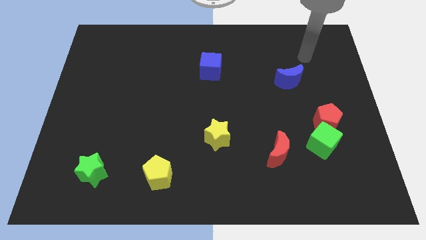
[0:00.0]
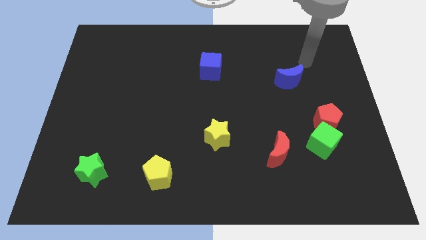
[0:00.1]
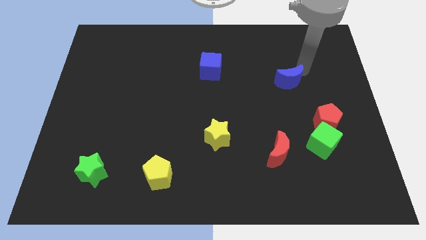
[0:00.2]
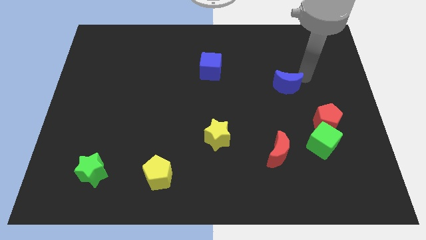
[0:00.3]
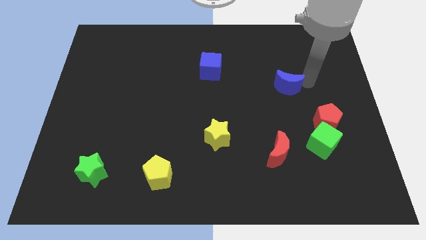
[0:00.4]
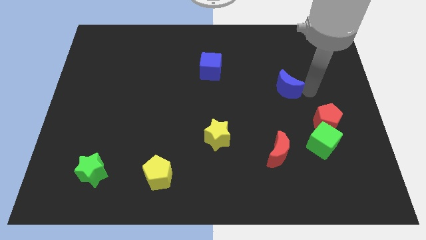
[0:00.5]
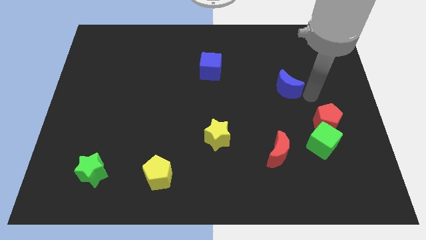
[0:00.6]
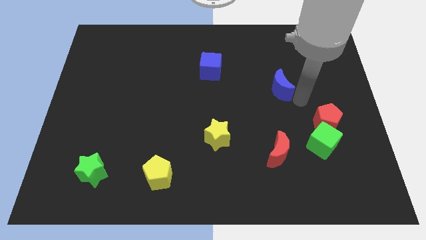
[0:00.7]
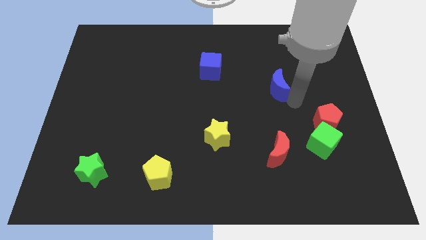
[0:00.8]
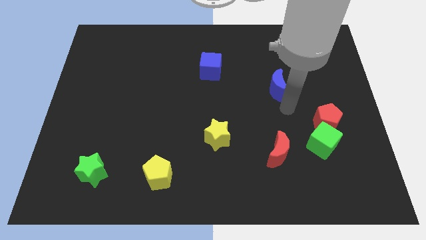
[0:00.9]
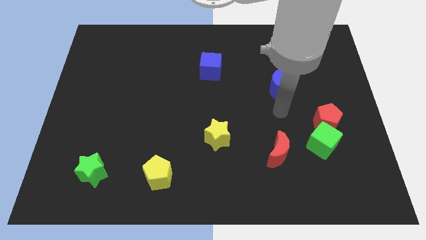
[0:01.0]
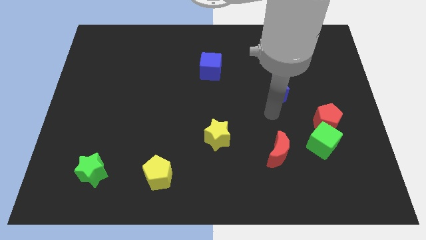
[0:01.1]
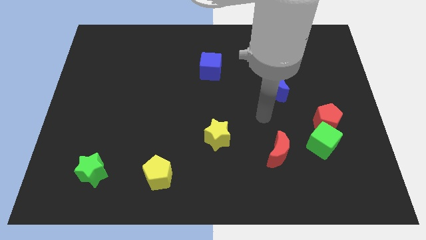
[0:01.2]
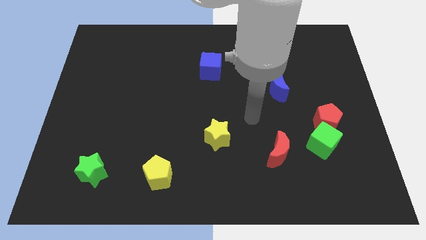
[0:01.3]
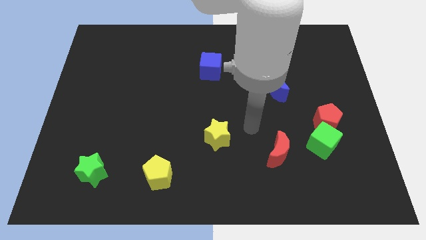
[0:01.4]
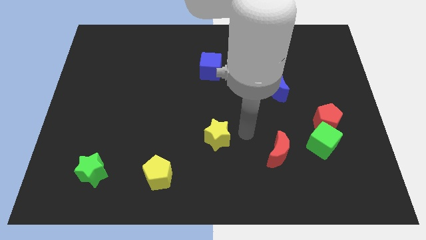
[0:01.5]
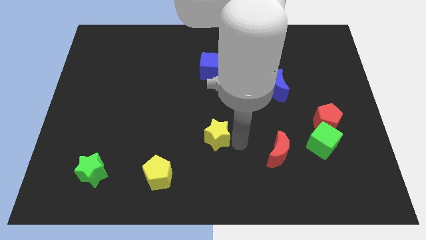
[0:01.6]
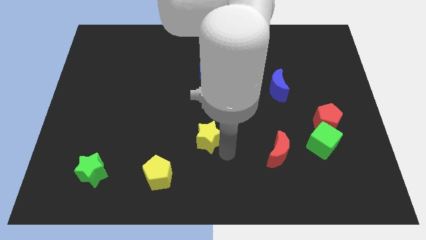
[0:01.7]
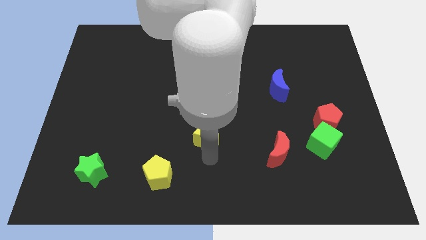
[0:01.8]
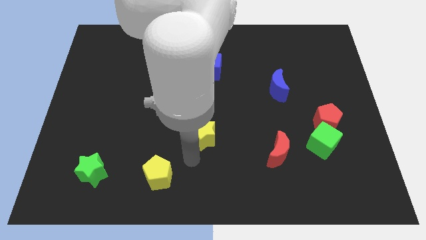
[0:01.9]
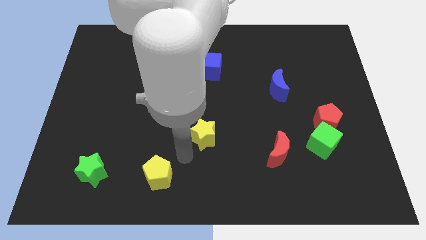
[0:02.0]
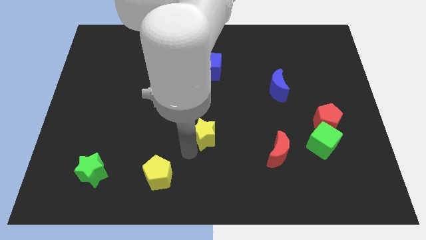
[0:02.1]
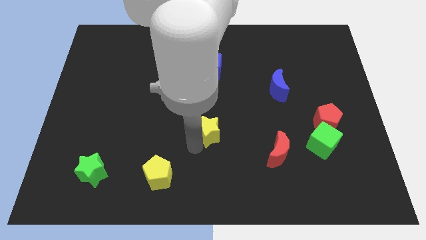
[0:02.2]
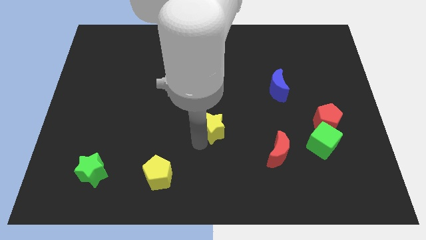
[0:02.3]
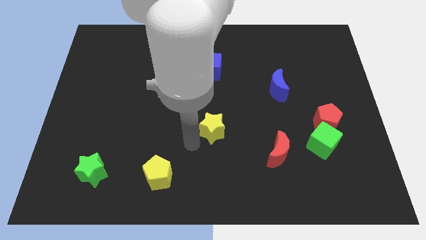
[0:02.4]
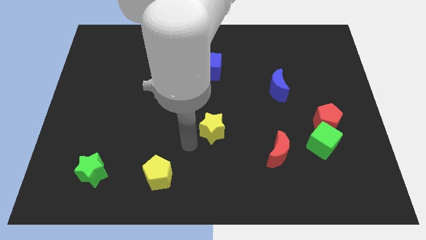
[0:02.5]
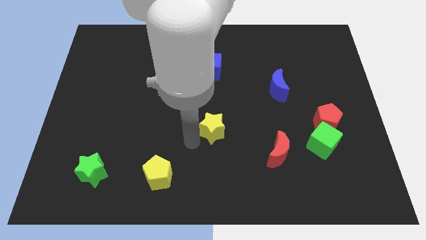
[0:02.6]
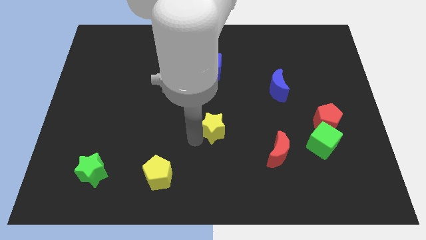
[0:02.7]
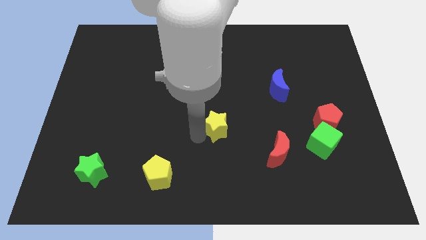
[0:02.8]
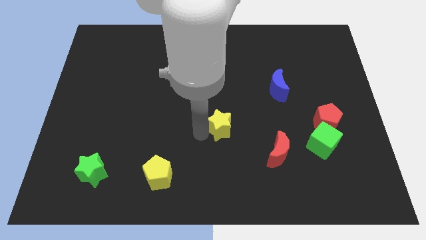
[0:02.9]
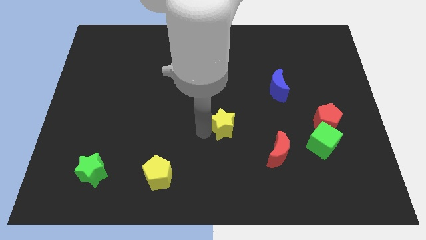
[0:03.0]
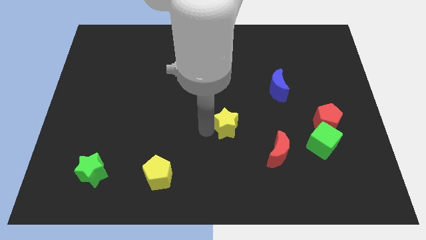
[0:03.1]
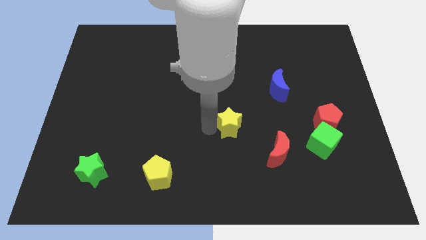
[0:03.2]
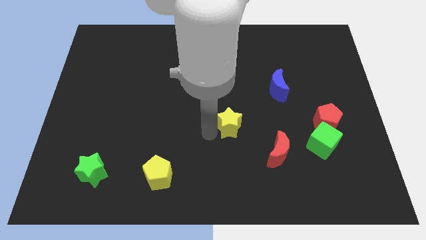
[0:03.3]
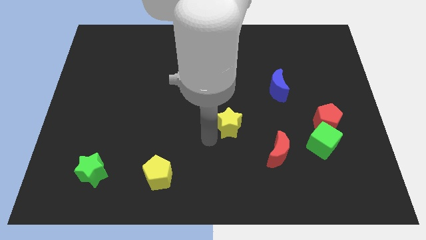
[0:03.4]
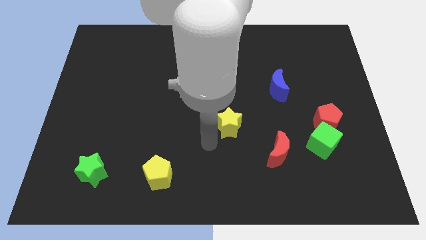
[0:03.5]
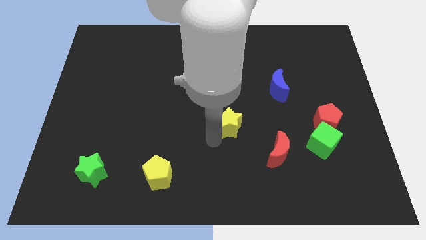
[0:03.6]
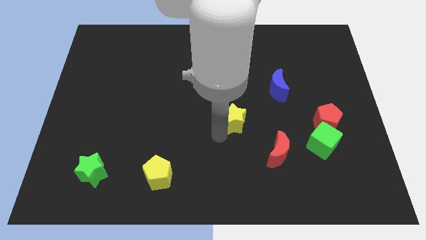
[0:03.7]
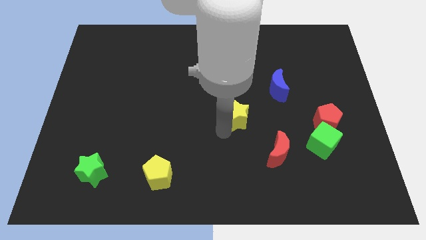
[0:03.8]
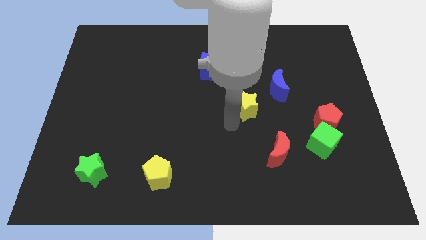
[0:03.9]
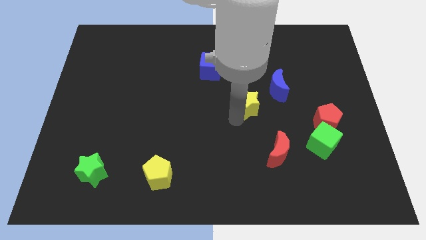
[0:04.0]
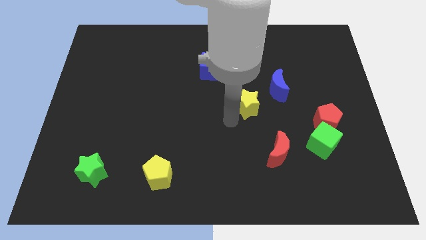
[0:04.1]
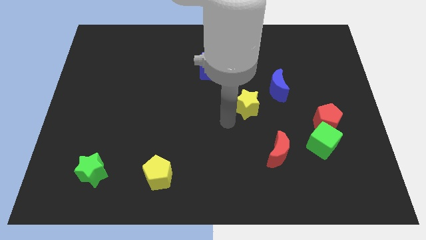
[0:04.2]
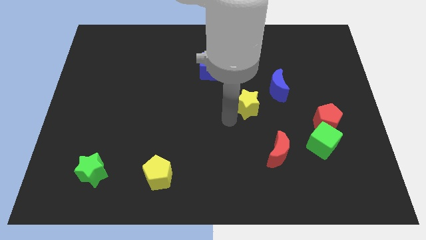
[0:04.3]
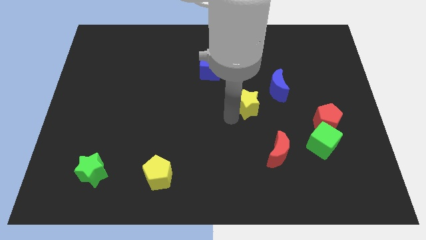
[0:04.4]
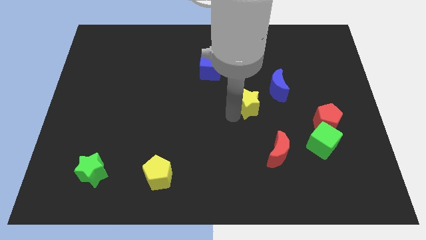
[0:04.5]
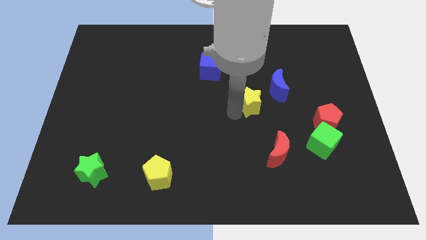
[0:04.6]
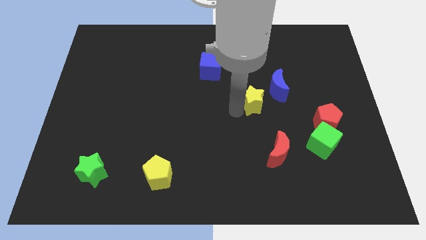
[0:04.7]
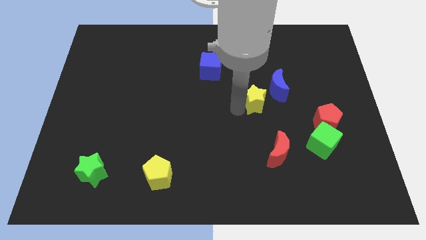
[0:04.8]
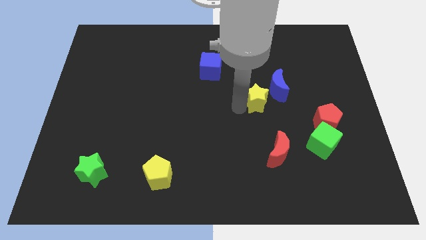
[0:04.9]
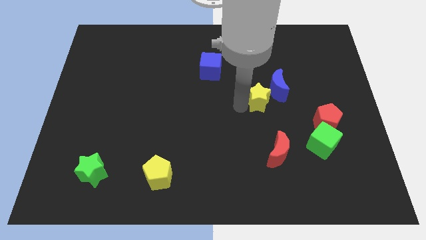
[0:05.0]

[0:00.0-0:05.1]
push the yellow star to the blue moon

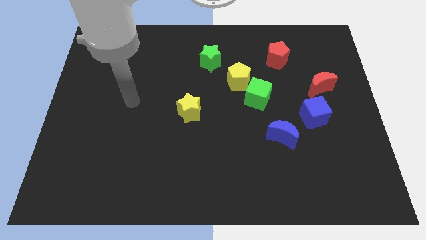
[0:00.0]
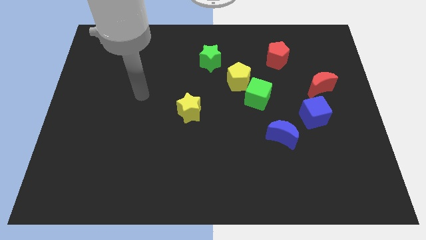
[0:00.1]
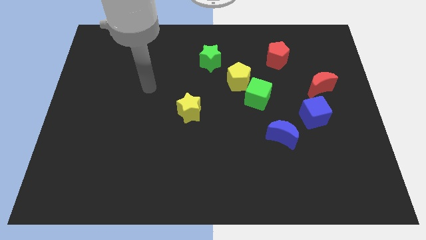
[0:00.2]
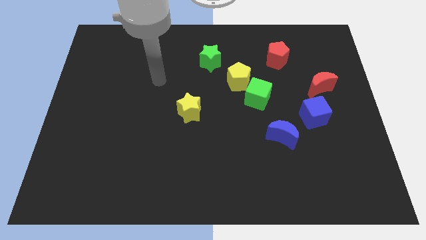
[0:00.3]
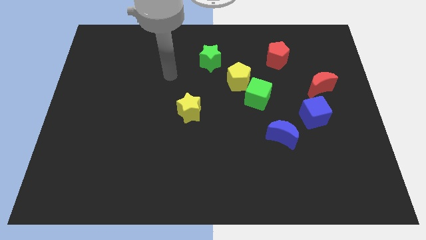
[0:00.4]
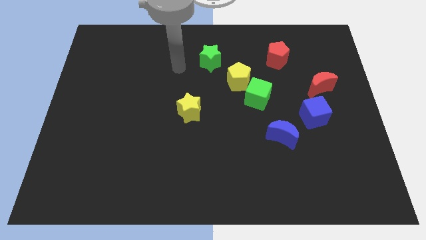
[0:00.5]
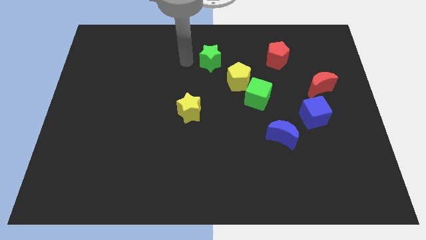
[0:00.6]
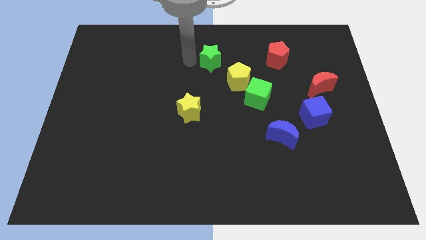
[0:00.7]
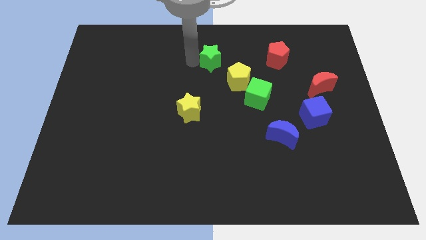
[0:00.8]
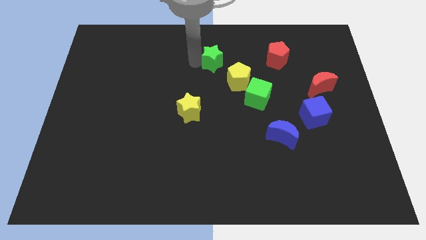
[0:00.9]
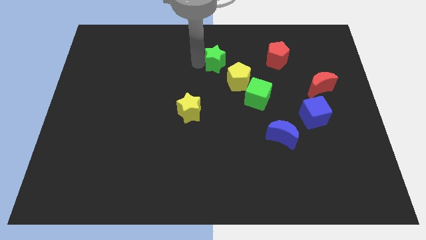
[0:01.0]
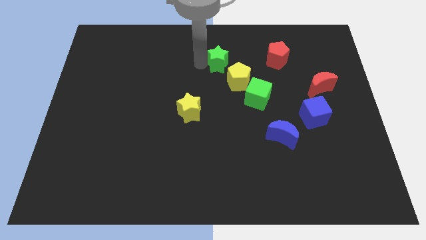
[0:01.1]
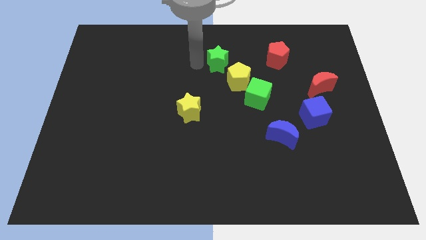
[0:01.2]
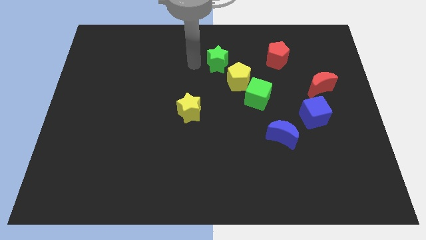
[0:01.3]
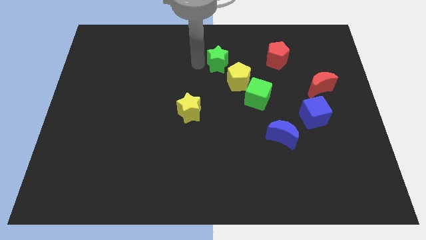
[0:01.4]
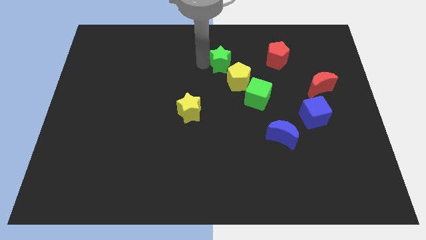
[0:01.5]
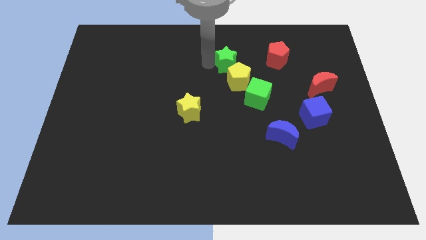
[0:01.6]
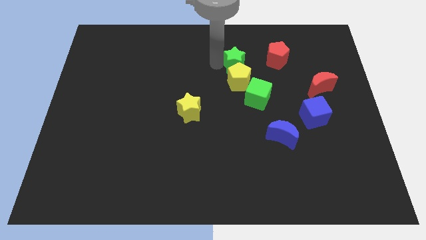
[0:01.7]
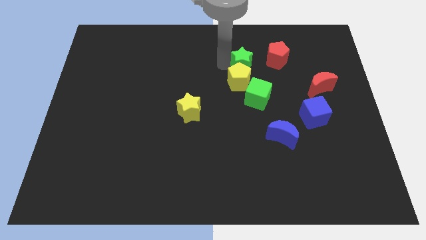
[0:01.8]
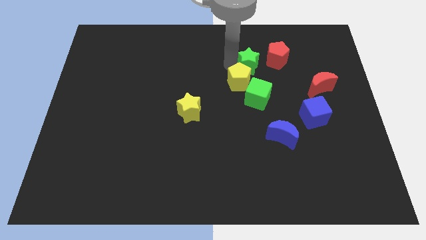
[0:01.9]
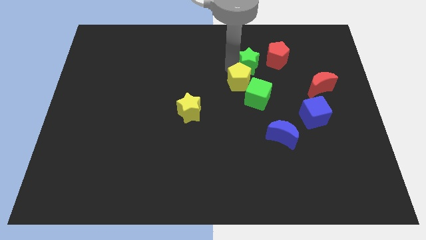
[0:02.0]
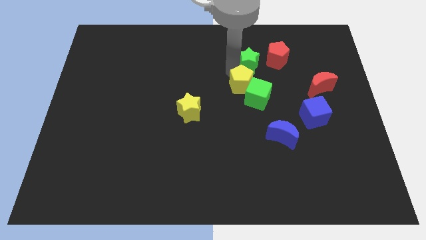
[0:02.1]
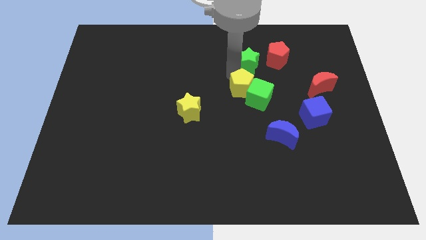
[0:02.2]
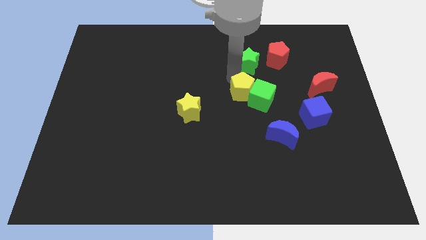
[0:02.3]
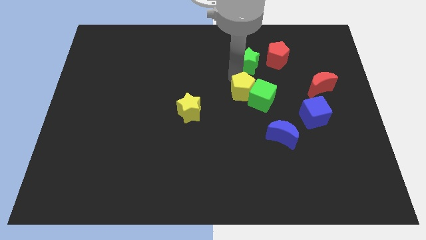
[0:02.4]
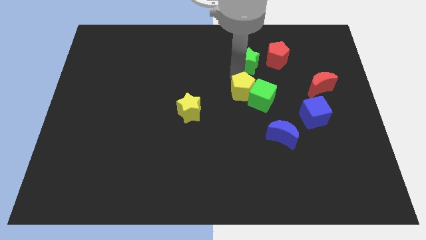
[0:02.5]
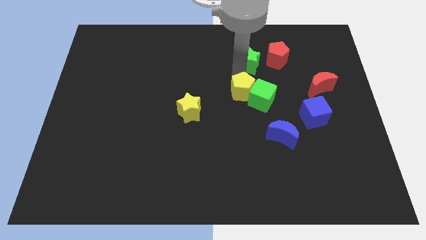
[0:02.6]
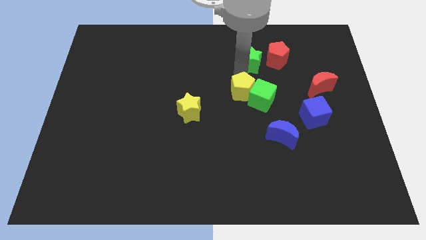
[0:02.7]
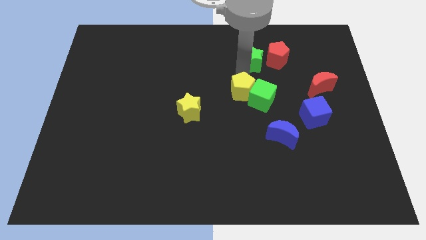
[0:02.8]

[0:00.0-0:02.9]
move the green star to the red pentagon

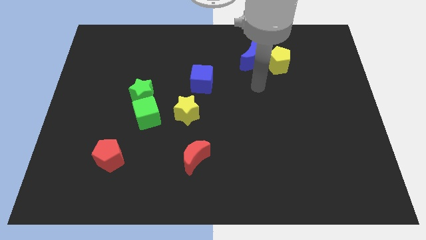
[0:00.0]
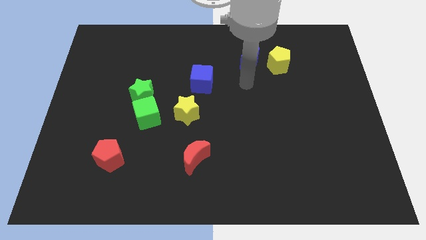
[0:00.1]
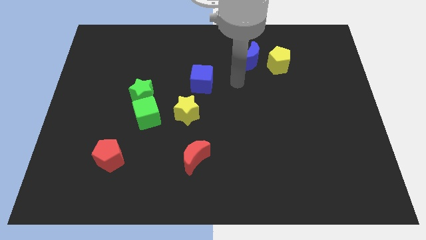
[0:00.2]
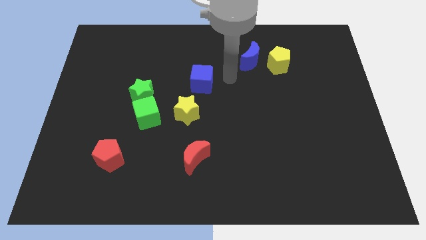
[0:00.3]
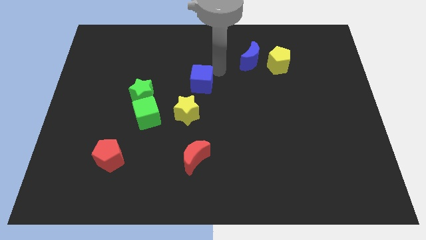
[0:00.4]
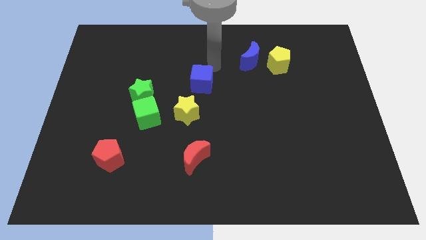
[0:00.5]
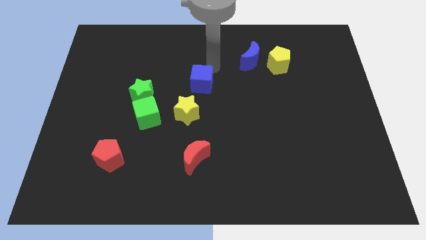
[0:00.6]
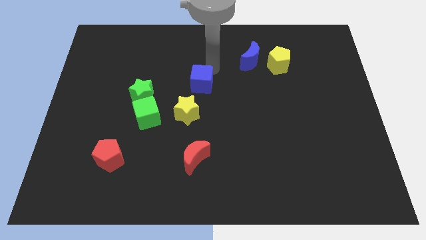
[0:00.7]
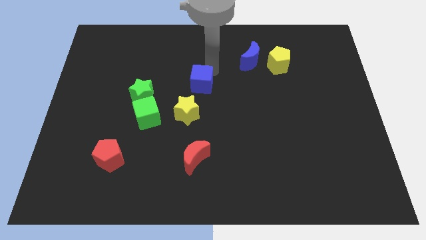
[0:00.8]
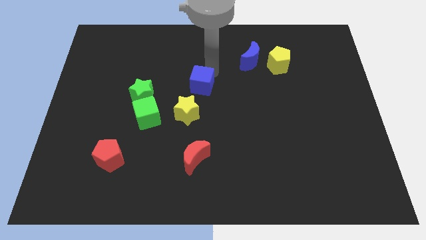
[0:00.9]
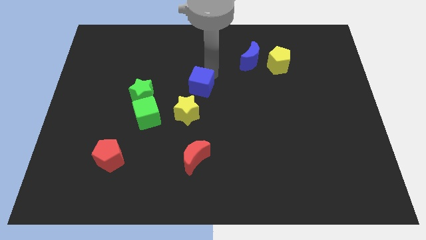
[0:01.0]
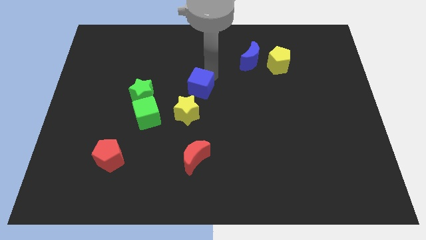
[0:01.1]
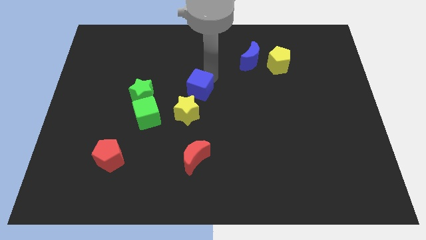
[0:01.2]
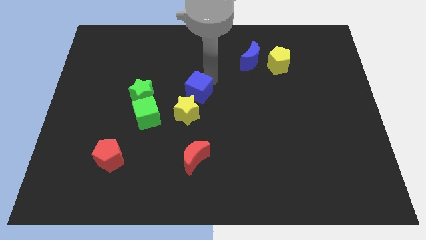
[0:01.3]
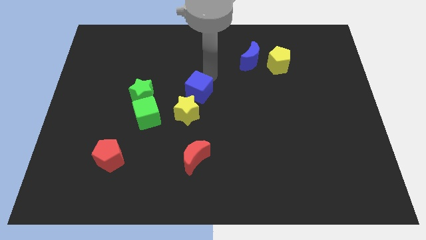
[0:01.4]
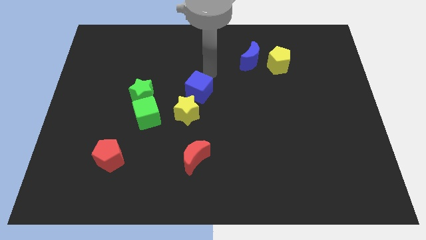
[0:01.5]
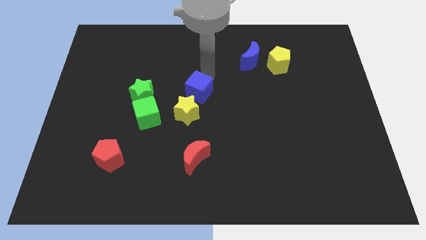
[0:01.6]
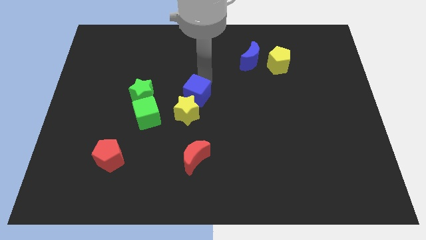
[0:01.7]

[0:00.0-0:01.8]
put the blue cube to the yellow star
